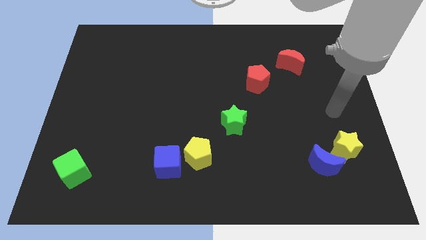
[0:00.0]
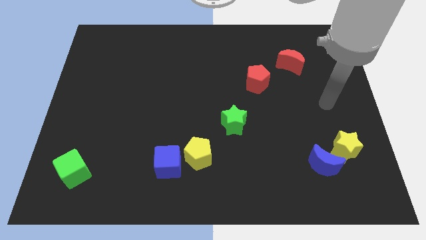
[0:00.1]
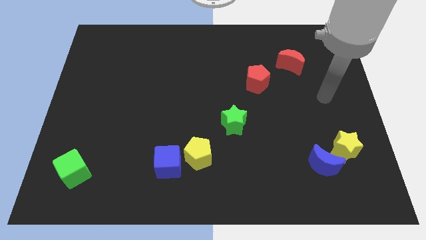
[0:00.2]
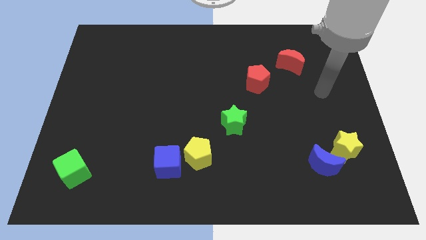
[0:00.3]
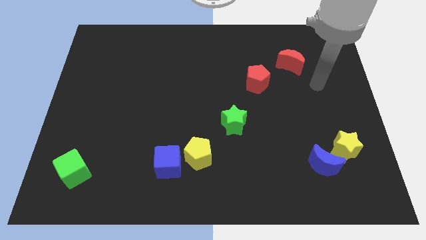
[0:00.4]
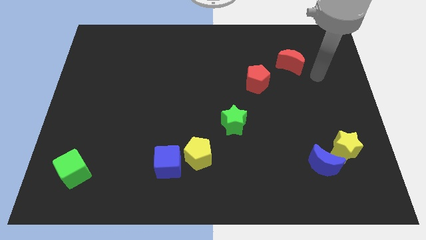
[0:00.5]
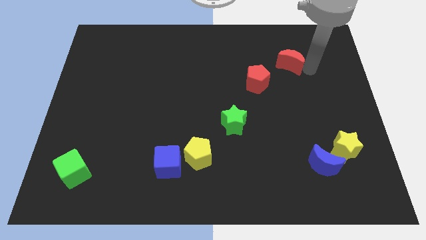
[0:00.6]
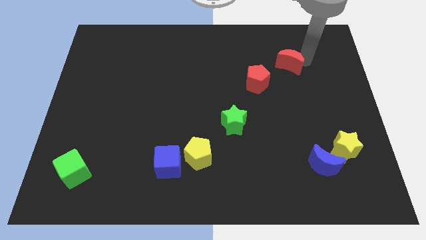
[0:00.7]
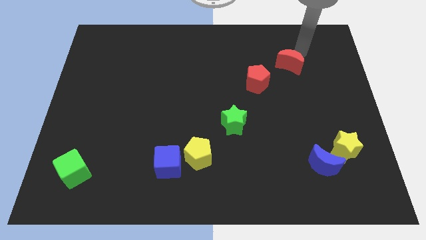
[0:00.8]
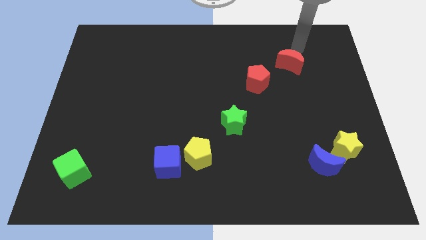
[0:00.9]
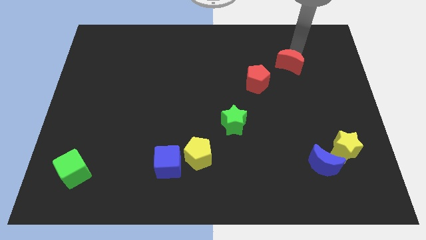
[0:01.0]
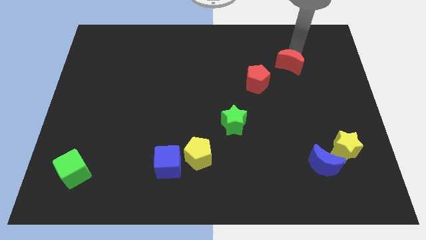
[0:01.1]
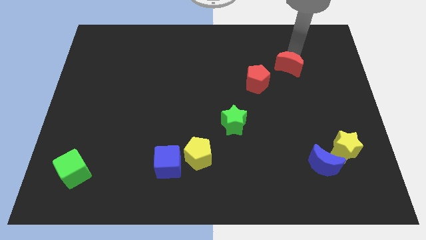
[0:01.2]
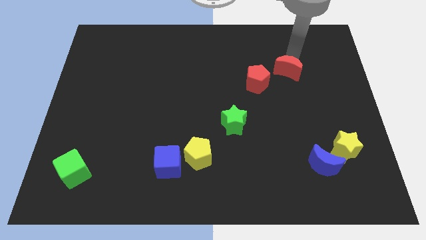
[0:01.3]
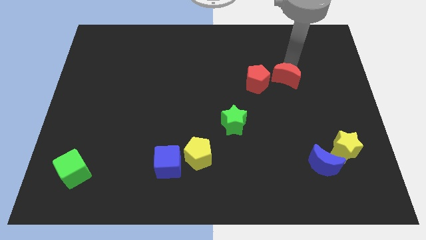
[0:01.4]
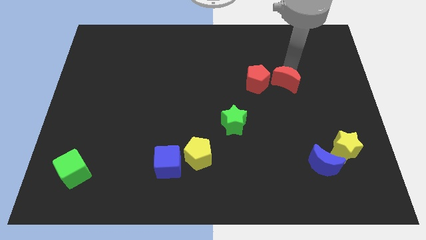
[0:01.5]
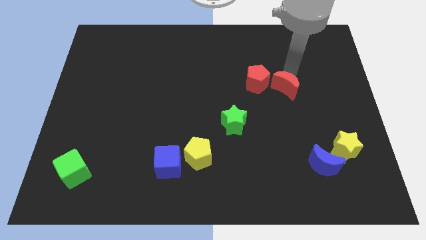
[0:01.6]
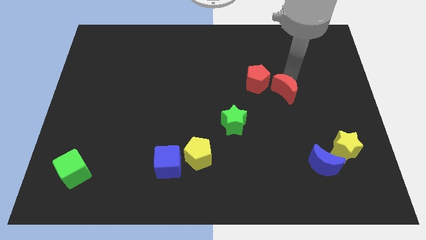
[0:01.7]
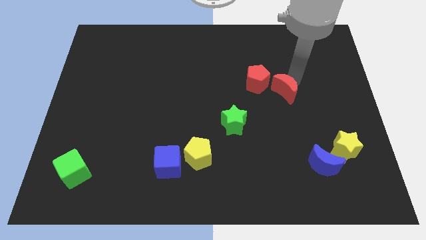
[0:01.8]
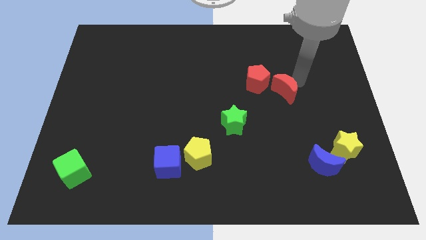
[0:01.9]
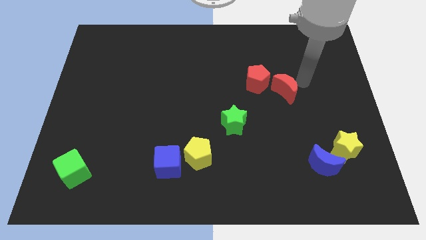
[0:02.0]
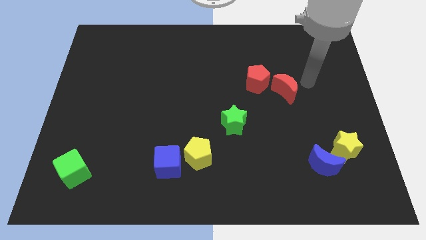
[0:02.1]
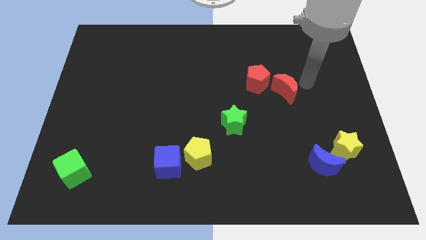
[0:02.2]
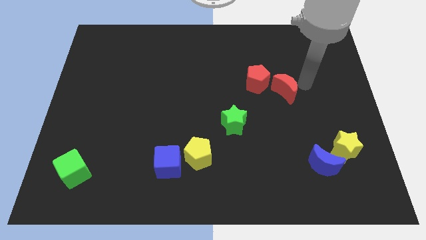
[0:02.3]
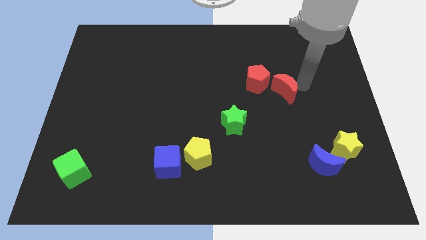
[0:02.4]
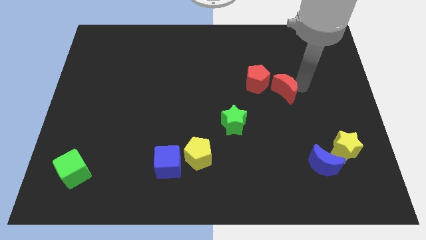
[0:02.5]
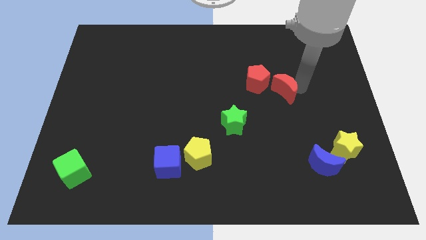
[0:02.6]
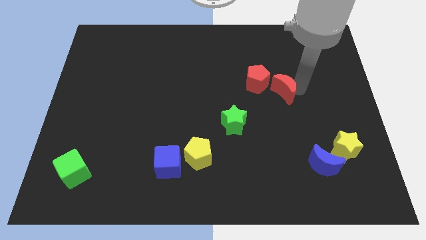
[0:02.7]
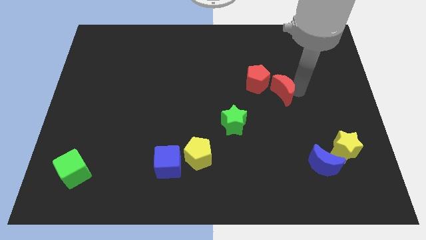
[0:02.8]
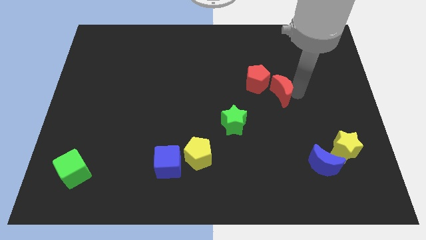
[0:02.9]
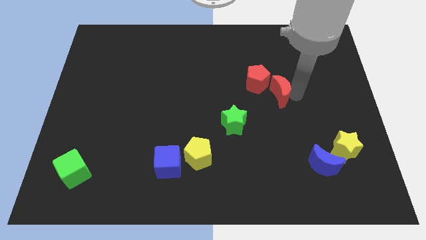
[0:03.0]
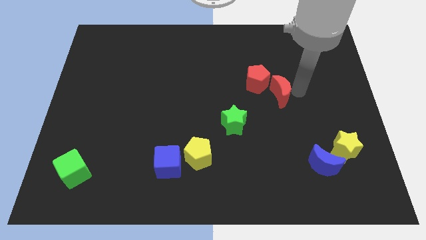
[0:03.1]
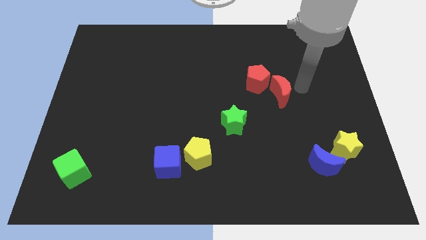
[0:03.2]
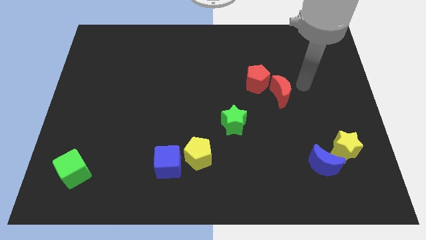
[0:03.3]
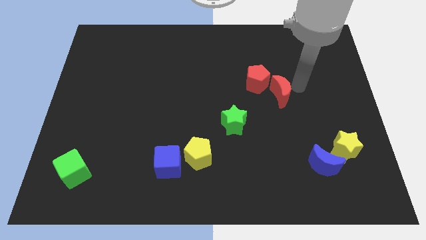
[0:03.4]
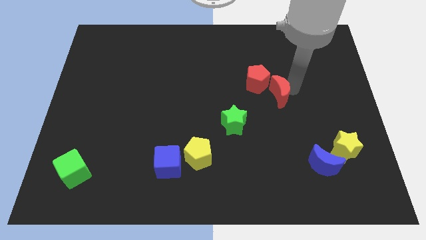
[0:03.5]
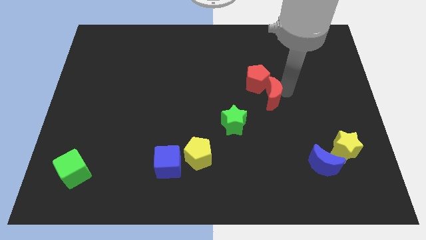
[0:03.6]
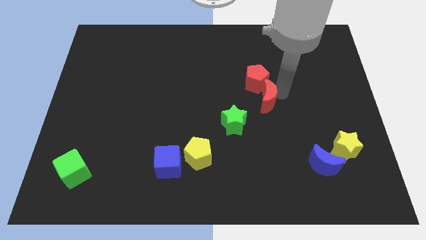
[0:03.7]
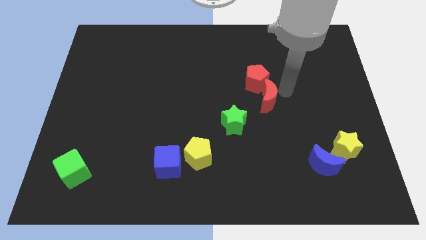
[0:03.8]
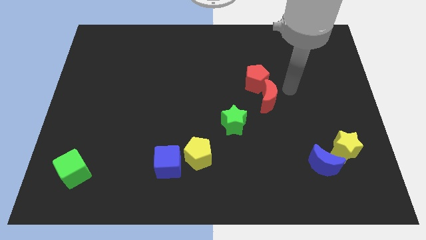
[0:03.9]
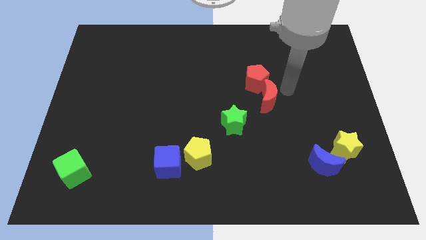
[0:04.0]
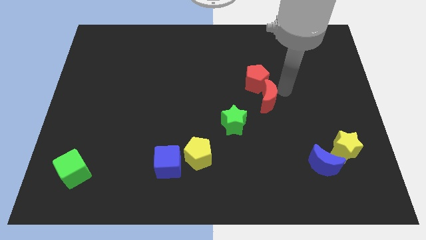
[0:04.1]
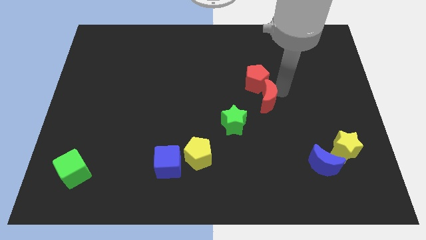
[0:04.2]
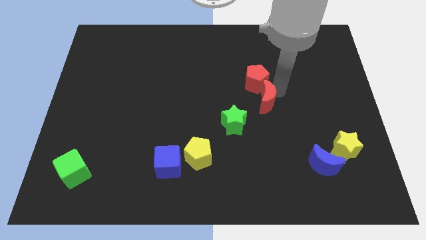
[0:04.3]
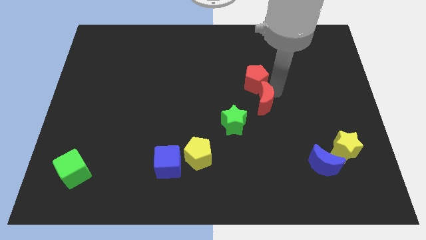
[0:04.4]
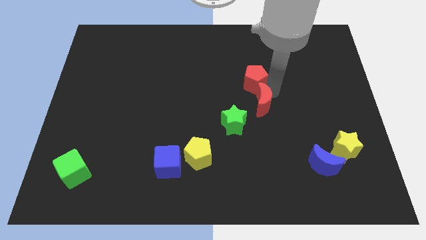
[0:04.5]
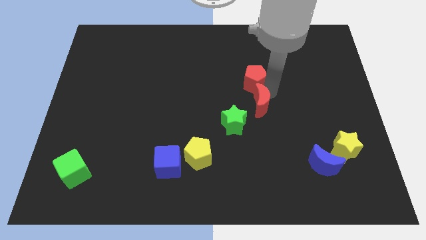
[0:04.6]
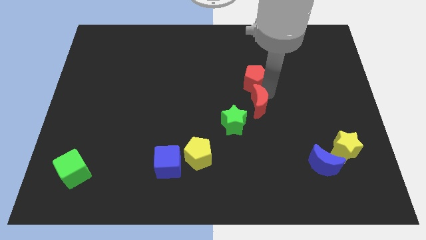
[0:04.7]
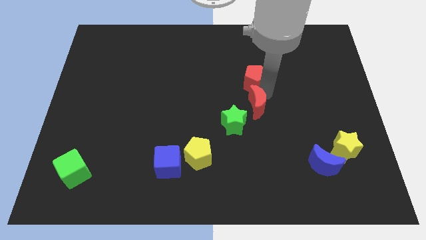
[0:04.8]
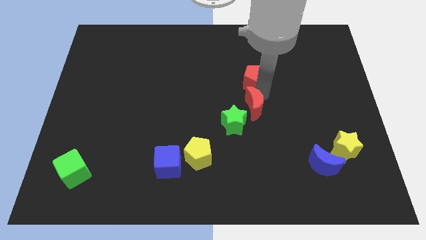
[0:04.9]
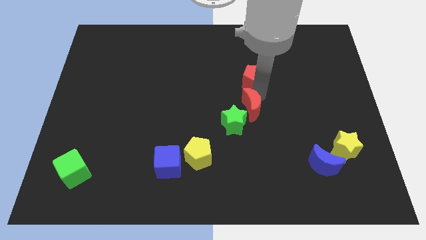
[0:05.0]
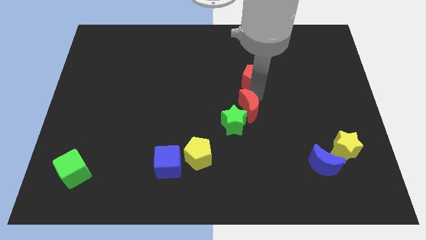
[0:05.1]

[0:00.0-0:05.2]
move the red moon next to the green star

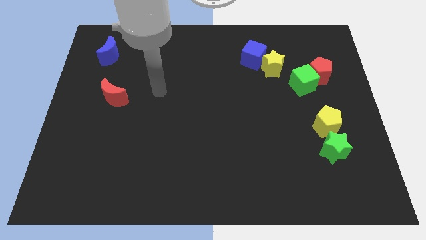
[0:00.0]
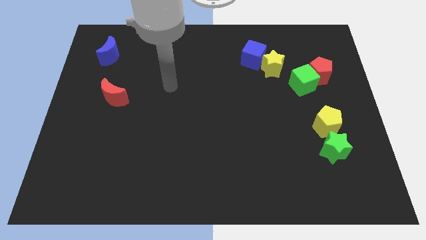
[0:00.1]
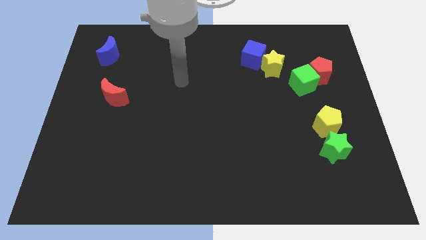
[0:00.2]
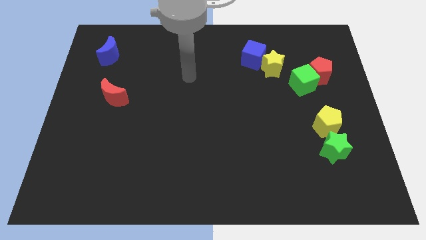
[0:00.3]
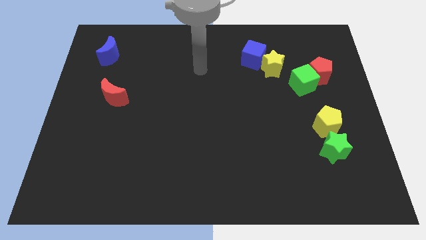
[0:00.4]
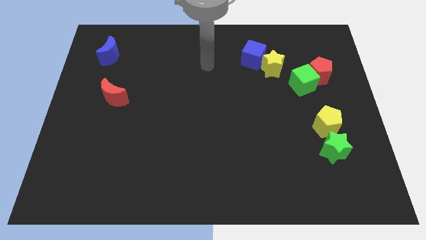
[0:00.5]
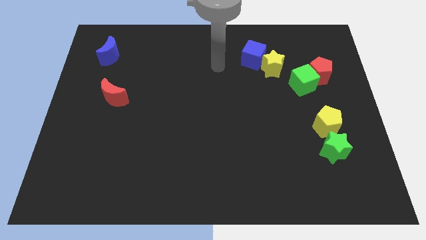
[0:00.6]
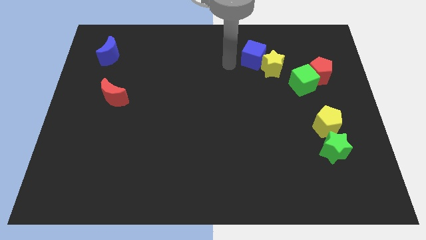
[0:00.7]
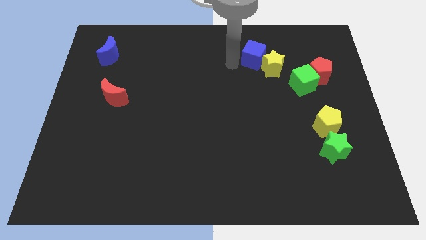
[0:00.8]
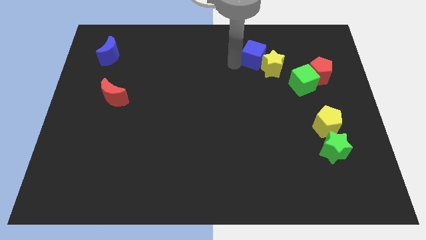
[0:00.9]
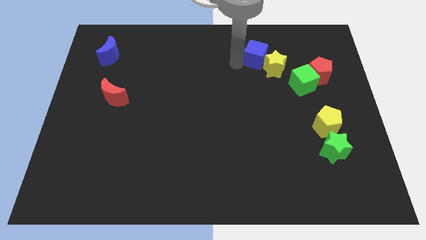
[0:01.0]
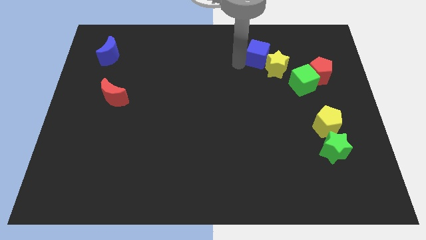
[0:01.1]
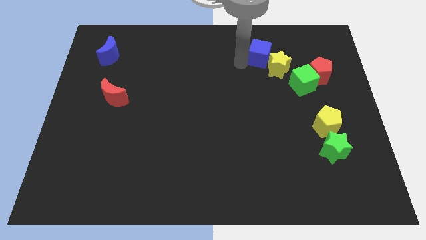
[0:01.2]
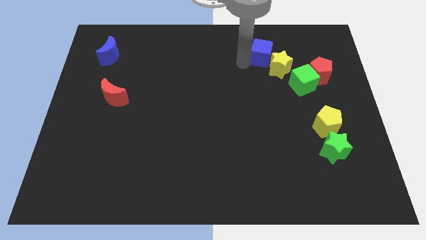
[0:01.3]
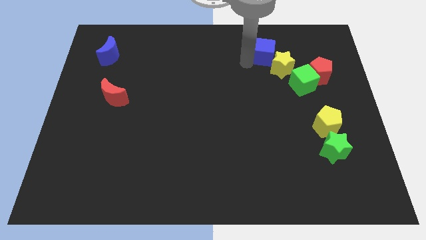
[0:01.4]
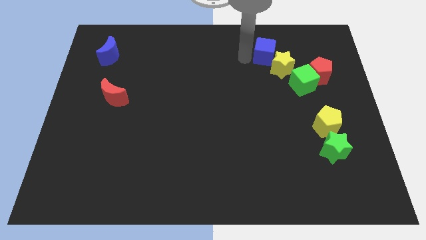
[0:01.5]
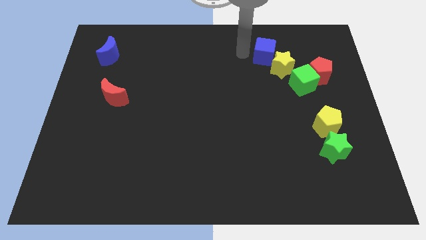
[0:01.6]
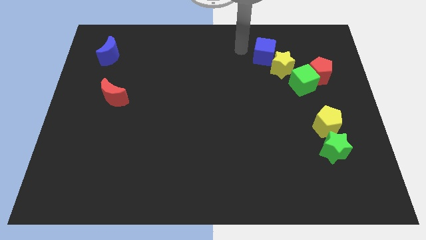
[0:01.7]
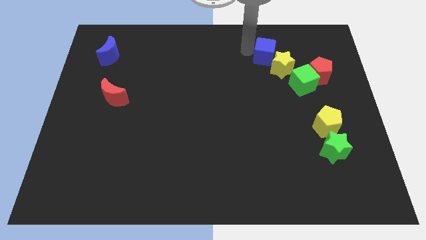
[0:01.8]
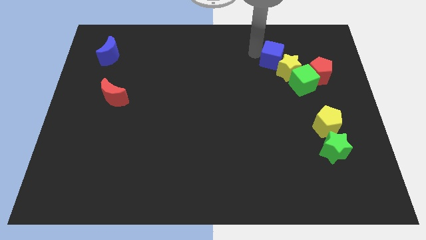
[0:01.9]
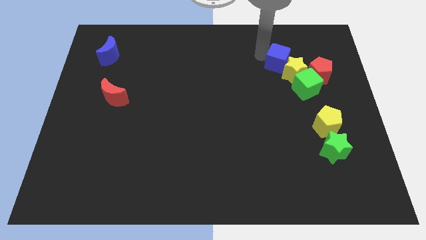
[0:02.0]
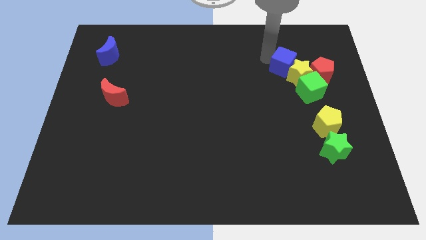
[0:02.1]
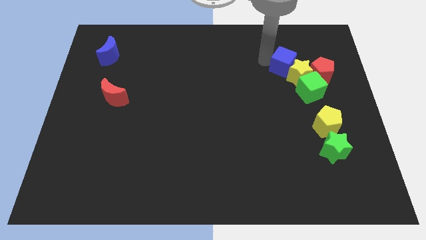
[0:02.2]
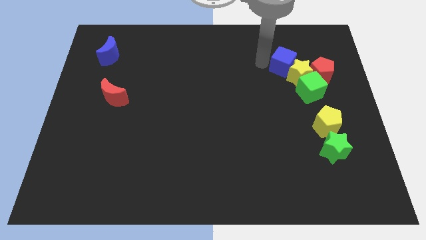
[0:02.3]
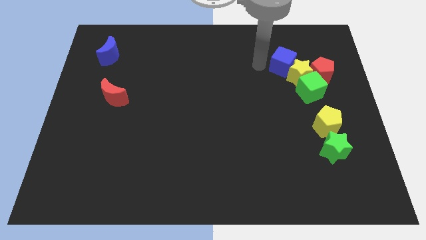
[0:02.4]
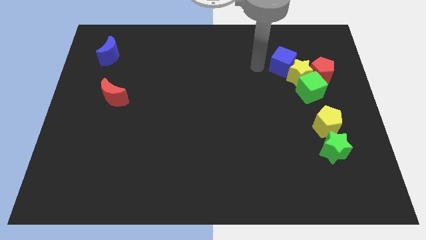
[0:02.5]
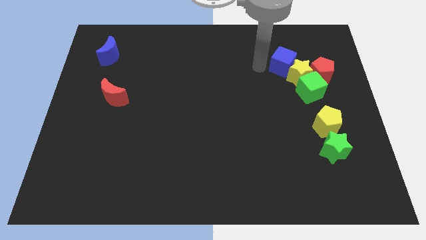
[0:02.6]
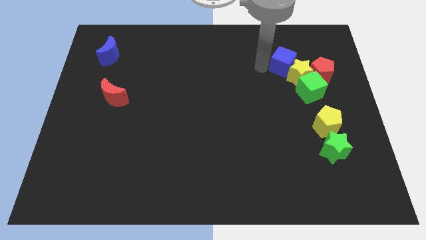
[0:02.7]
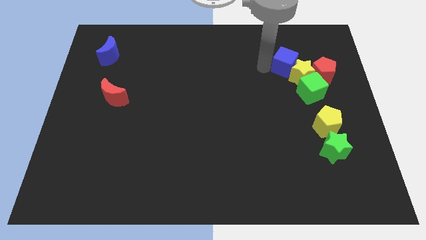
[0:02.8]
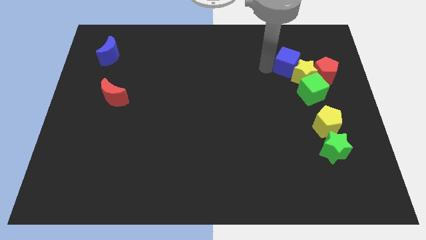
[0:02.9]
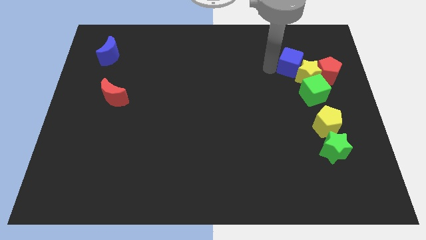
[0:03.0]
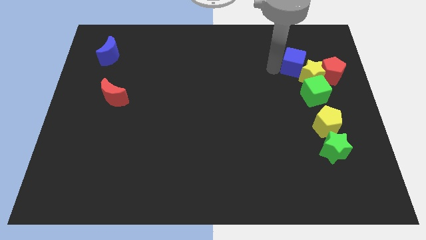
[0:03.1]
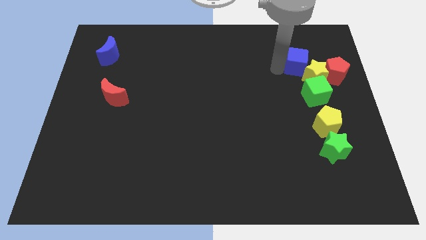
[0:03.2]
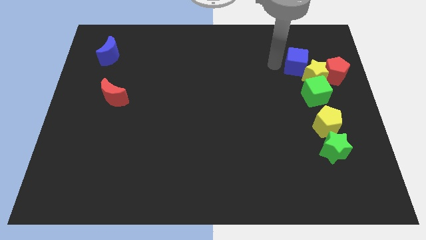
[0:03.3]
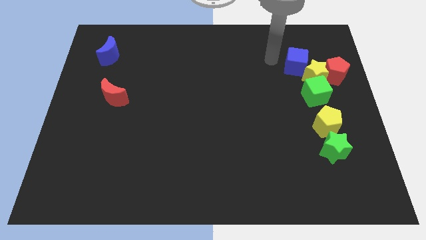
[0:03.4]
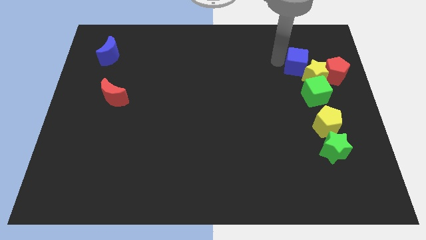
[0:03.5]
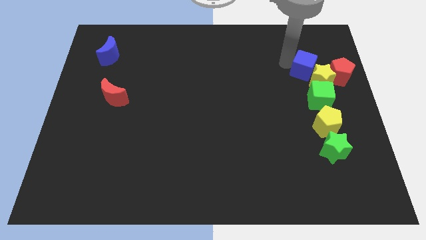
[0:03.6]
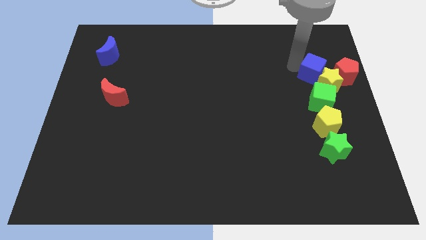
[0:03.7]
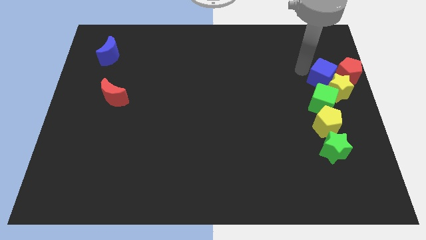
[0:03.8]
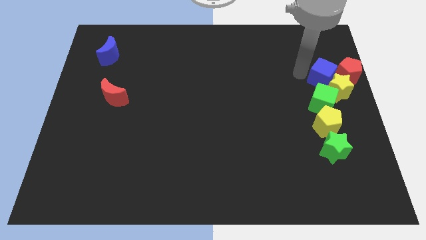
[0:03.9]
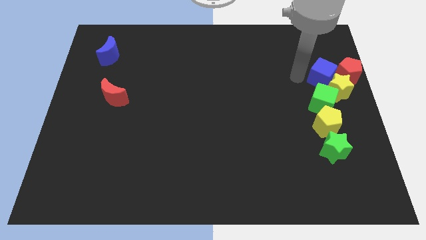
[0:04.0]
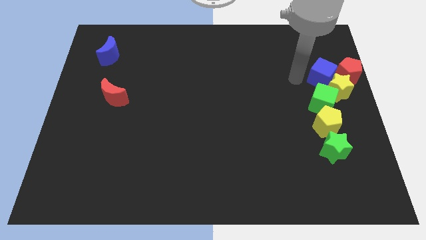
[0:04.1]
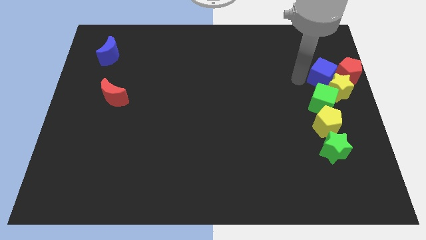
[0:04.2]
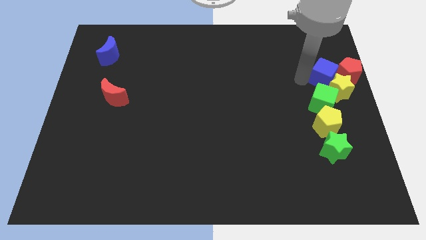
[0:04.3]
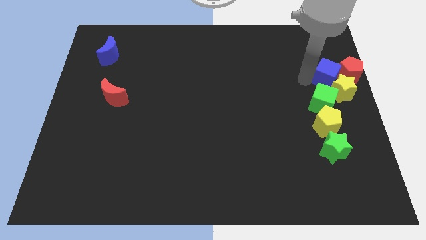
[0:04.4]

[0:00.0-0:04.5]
slide the blue cube towards the red pentagon
